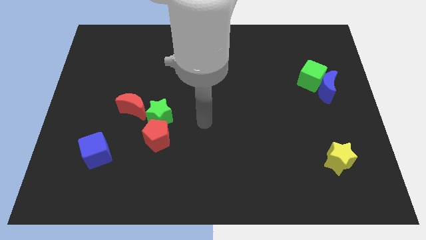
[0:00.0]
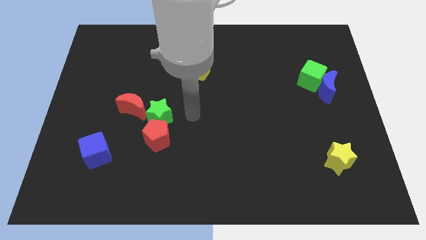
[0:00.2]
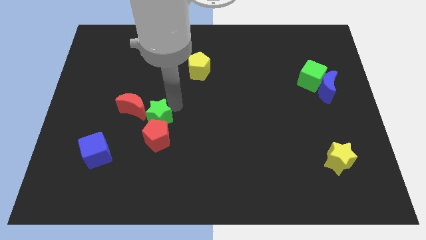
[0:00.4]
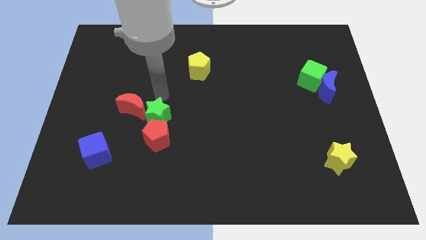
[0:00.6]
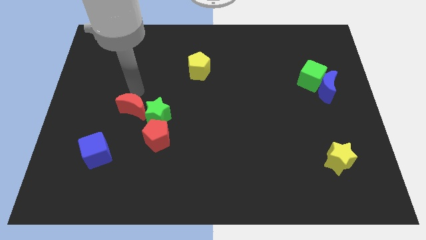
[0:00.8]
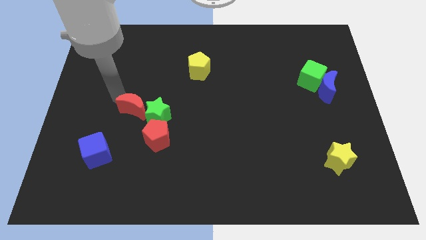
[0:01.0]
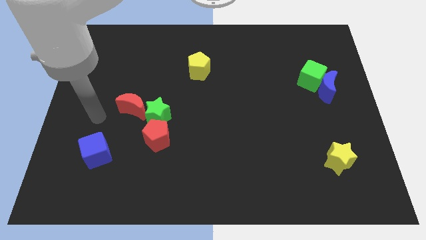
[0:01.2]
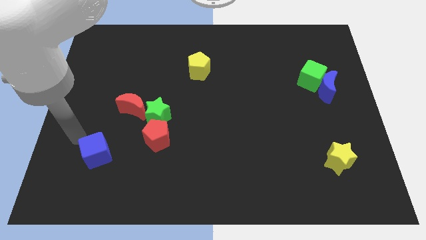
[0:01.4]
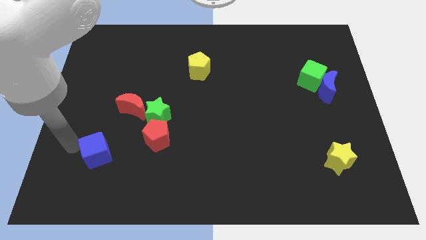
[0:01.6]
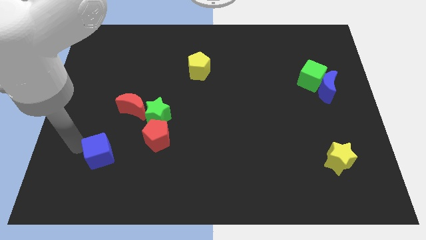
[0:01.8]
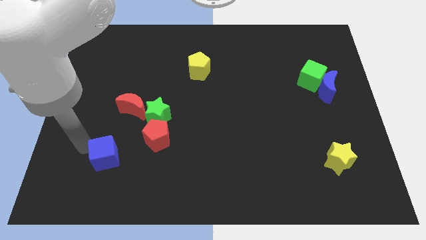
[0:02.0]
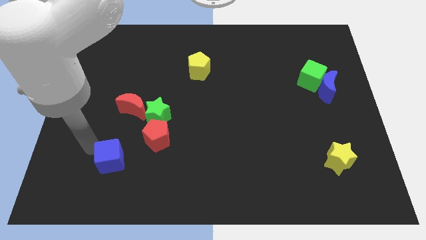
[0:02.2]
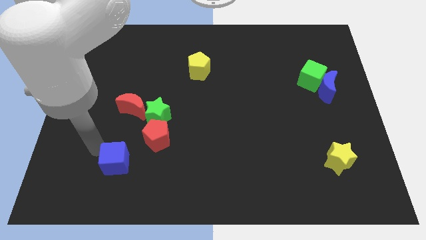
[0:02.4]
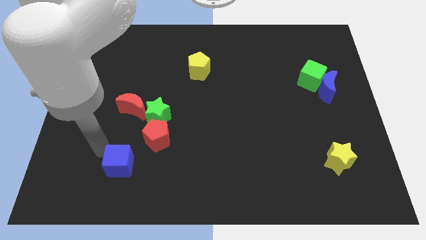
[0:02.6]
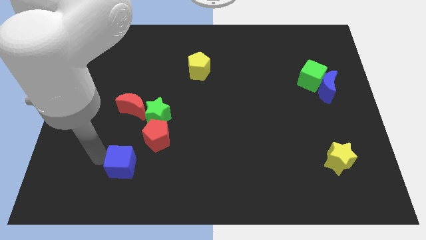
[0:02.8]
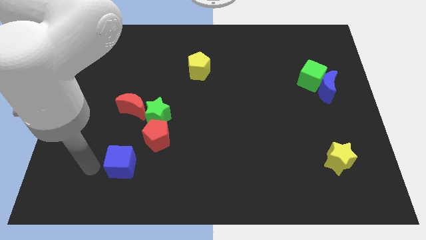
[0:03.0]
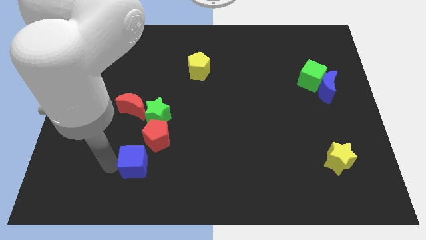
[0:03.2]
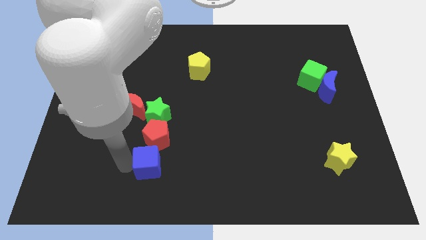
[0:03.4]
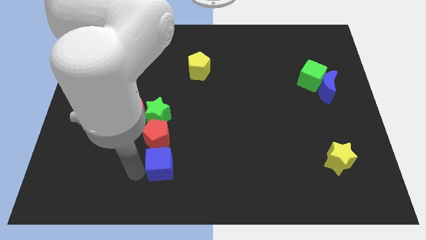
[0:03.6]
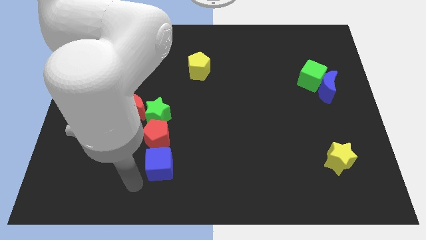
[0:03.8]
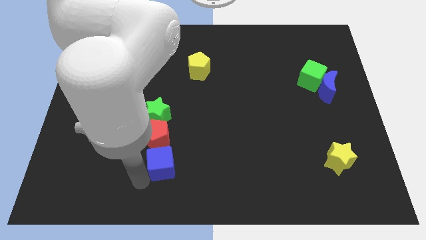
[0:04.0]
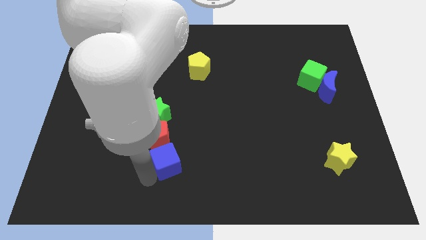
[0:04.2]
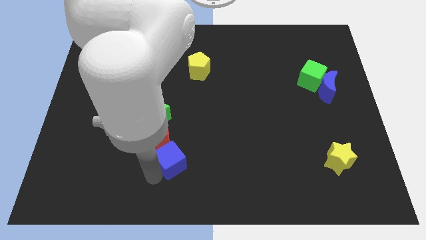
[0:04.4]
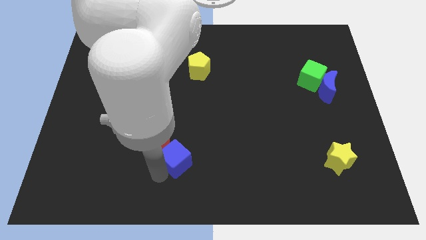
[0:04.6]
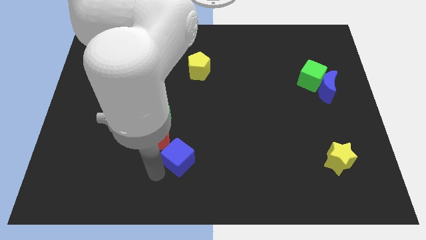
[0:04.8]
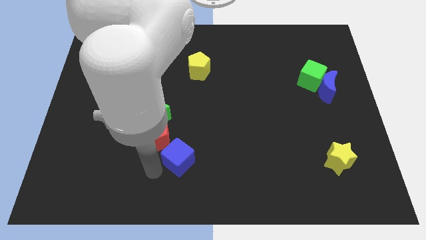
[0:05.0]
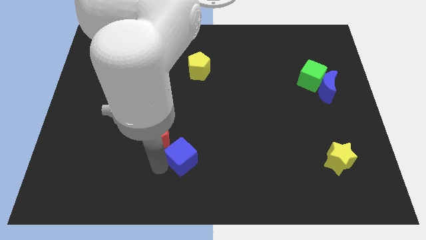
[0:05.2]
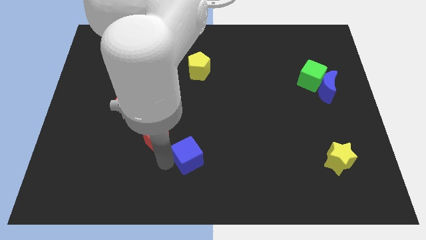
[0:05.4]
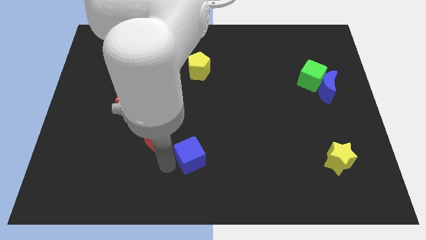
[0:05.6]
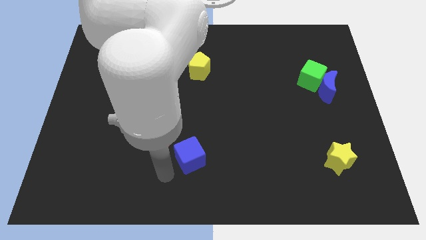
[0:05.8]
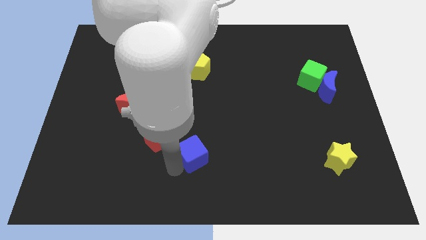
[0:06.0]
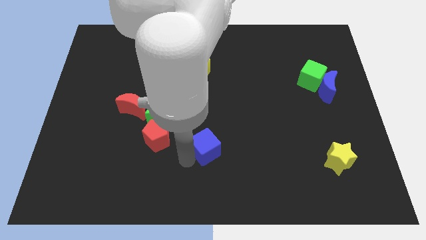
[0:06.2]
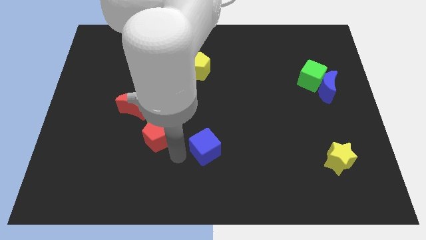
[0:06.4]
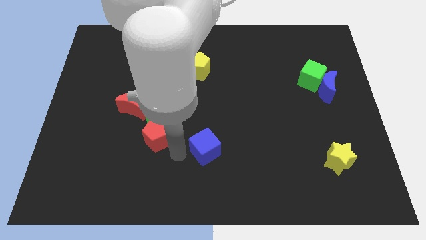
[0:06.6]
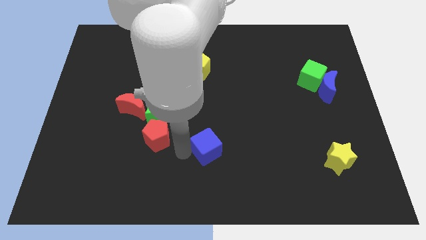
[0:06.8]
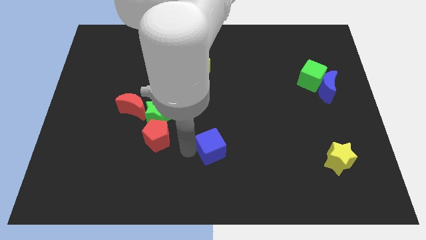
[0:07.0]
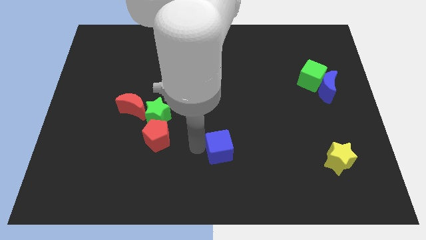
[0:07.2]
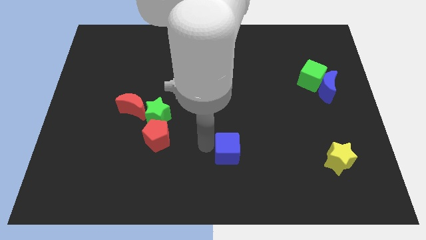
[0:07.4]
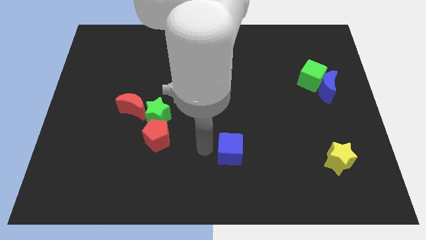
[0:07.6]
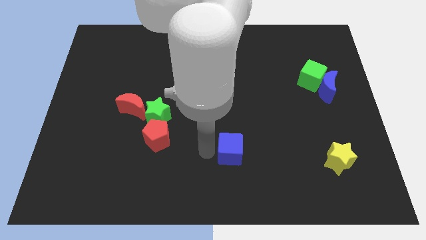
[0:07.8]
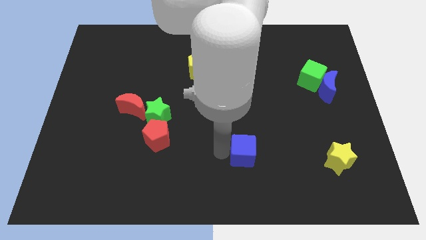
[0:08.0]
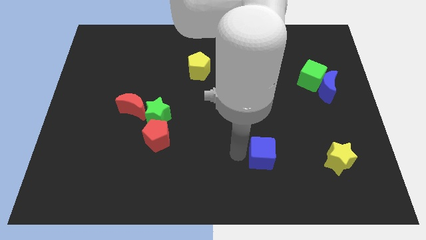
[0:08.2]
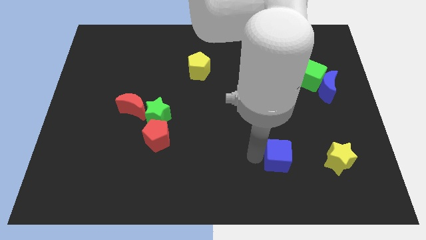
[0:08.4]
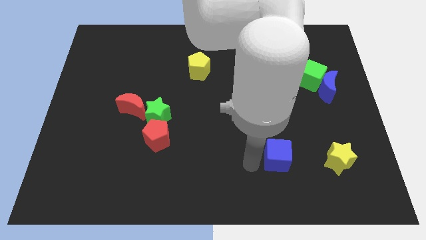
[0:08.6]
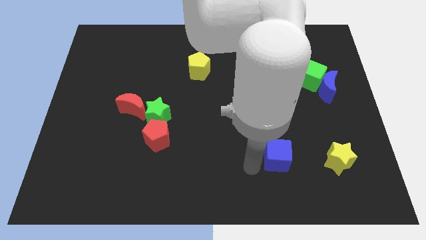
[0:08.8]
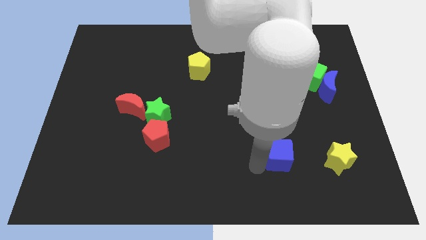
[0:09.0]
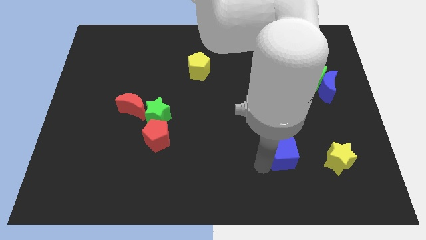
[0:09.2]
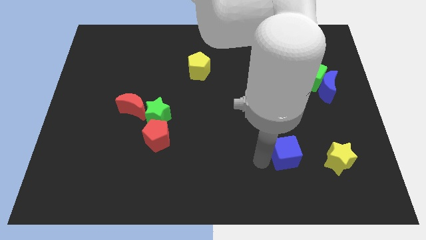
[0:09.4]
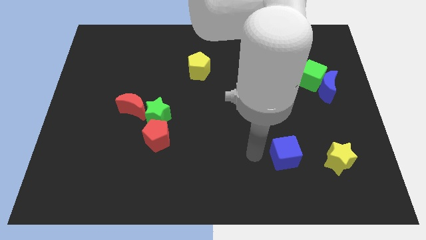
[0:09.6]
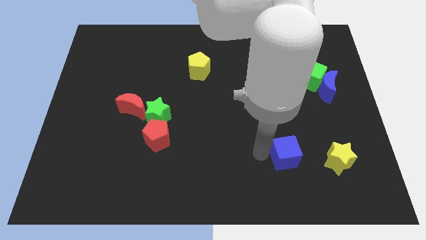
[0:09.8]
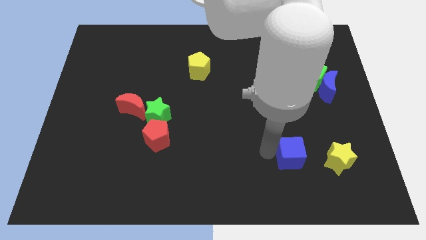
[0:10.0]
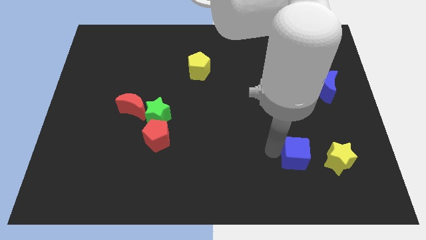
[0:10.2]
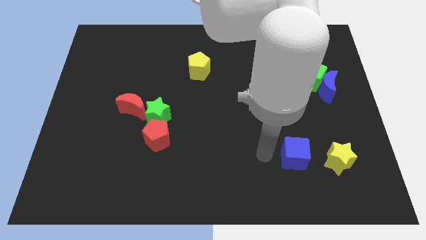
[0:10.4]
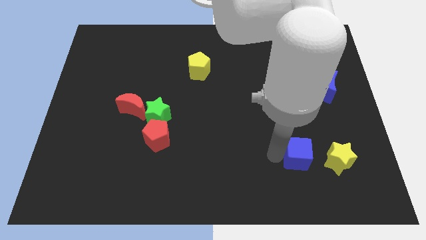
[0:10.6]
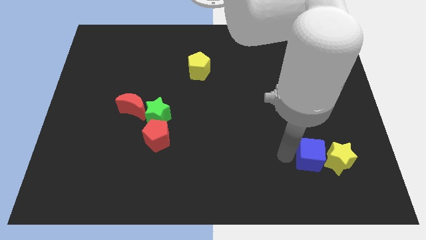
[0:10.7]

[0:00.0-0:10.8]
move the blue cube close to the yellow star

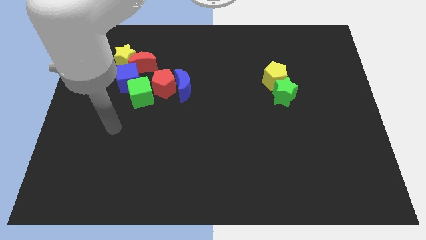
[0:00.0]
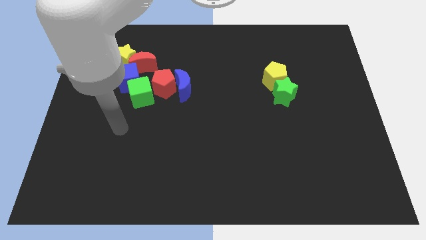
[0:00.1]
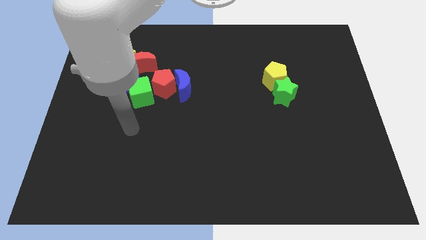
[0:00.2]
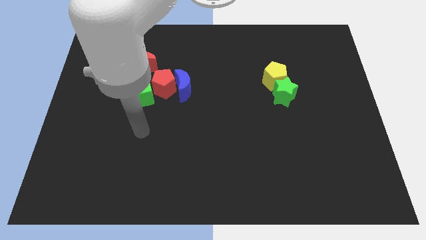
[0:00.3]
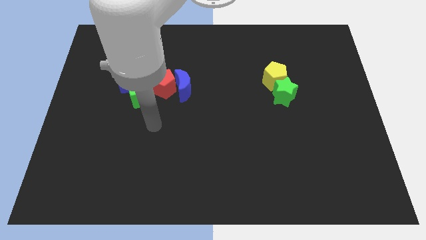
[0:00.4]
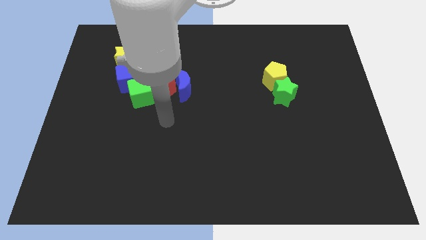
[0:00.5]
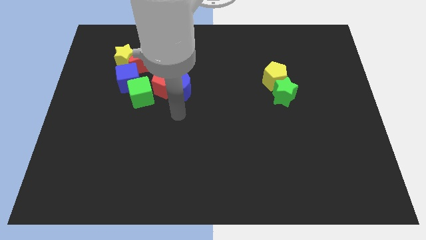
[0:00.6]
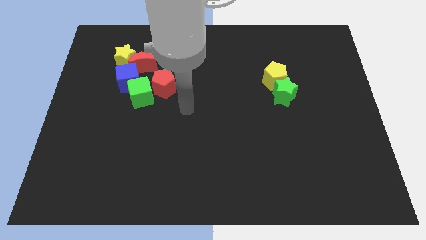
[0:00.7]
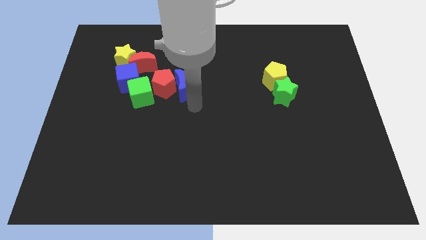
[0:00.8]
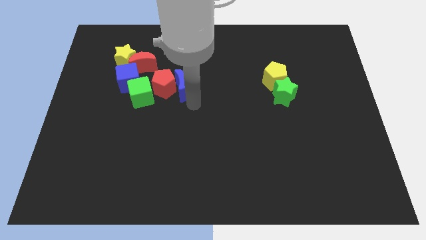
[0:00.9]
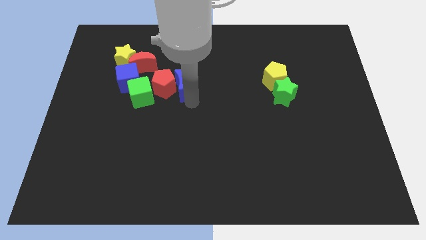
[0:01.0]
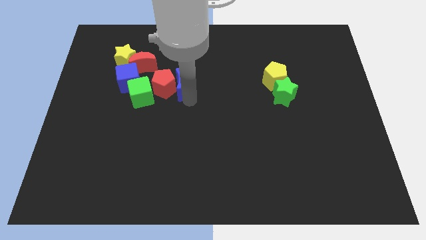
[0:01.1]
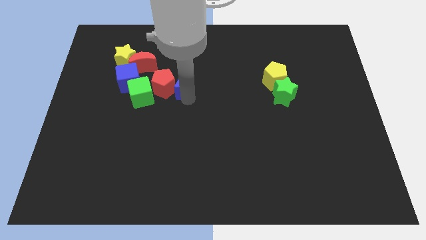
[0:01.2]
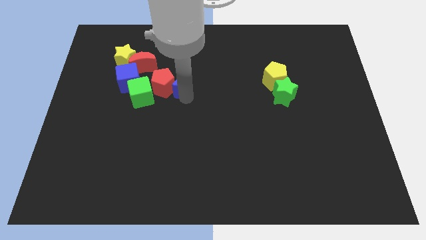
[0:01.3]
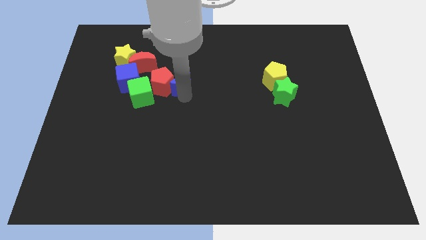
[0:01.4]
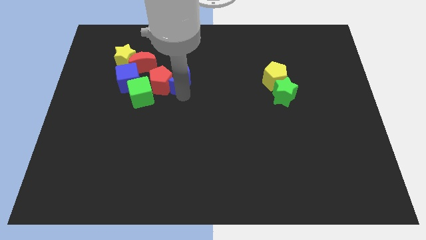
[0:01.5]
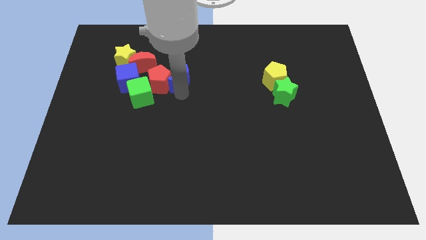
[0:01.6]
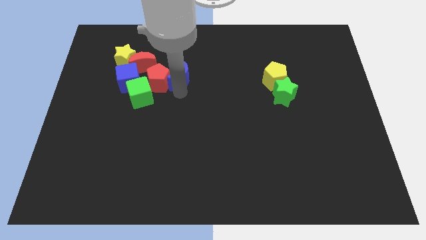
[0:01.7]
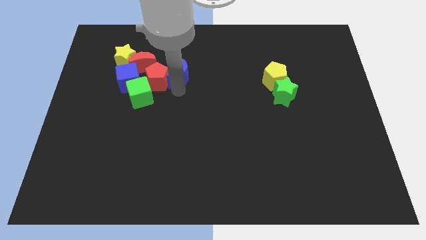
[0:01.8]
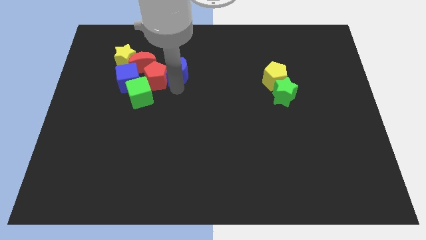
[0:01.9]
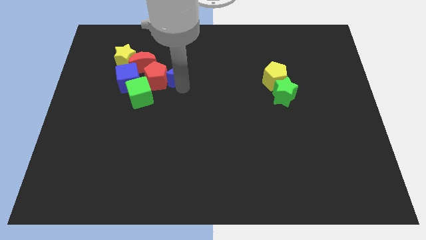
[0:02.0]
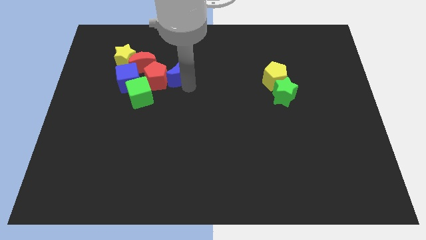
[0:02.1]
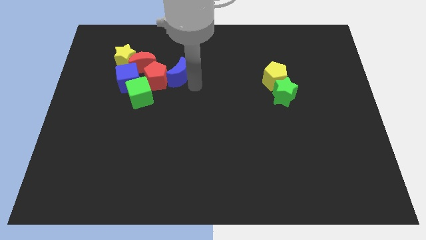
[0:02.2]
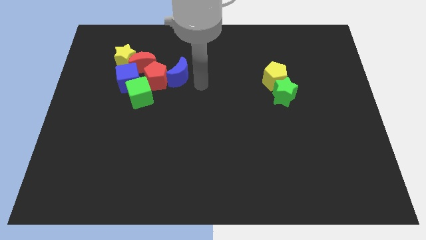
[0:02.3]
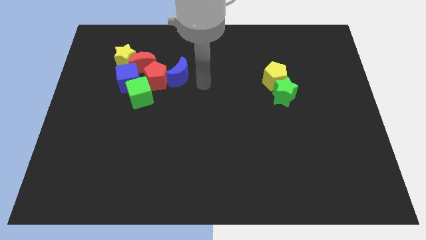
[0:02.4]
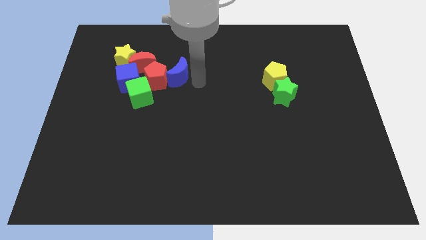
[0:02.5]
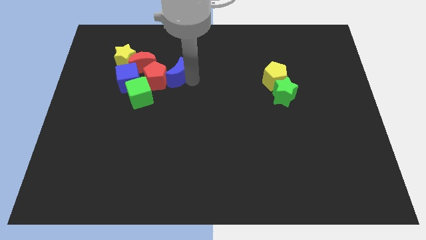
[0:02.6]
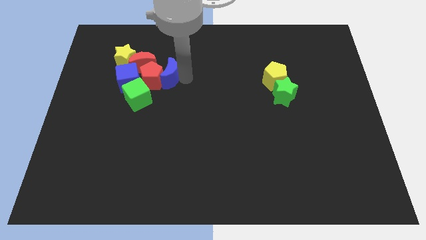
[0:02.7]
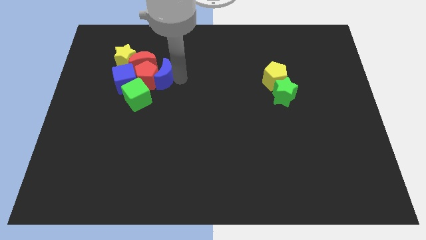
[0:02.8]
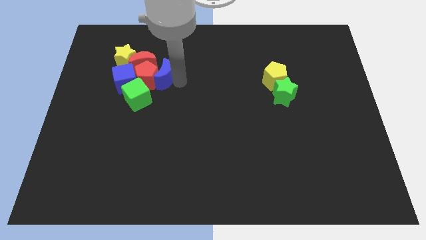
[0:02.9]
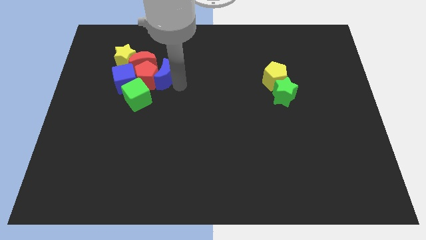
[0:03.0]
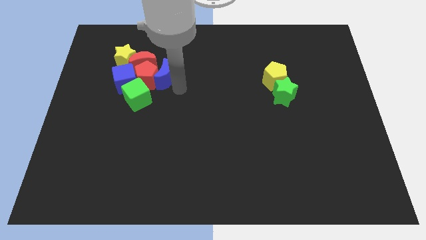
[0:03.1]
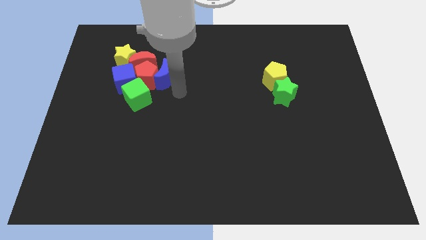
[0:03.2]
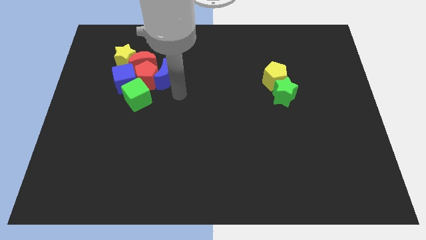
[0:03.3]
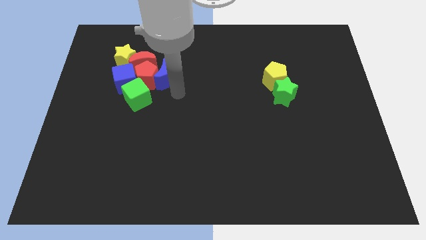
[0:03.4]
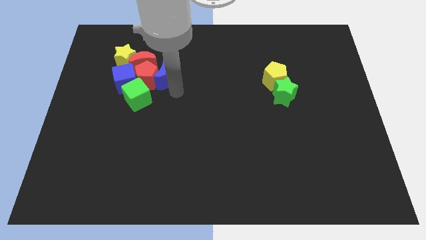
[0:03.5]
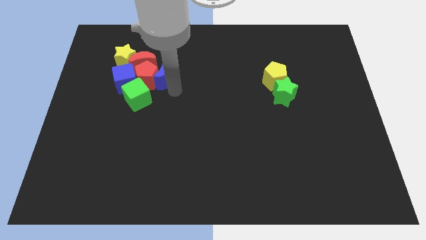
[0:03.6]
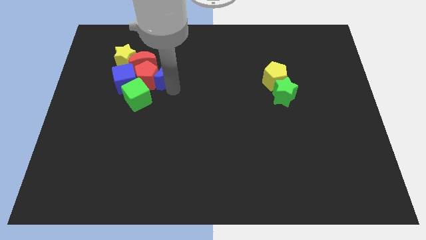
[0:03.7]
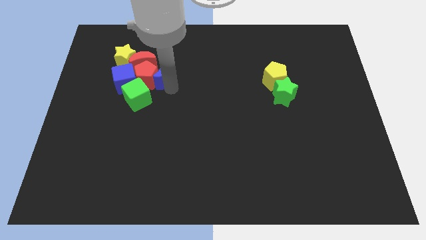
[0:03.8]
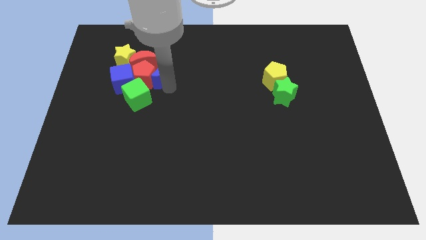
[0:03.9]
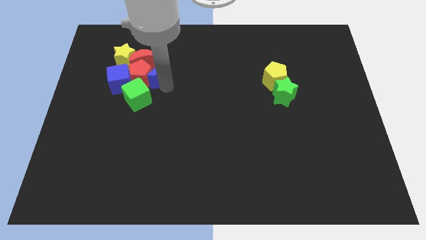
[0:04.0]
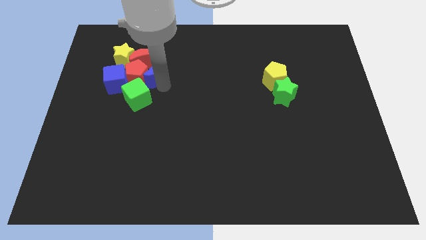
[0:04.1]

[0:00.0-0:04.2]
push the blue moon to the red moon
